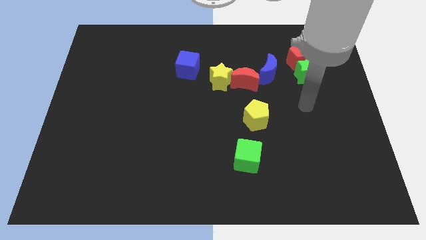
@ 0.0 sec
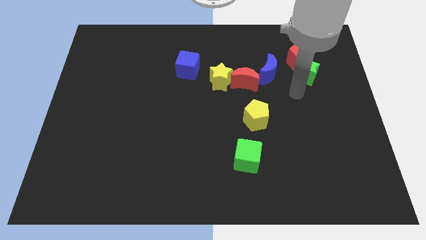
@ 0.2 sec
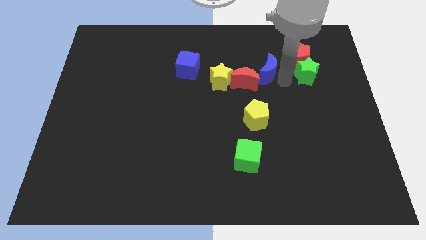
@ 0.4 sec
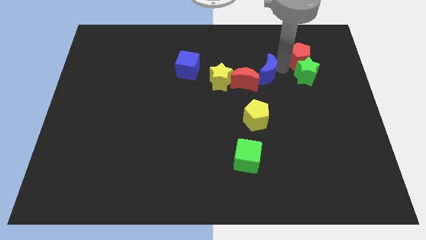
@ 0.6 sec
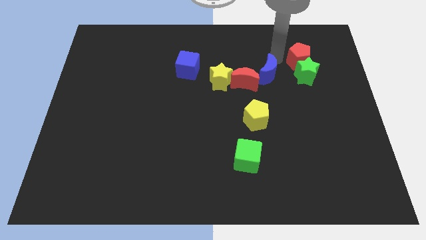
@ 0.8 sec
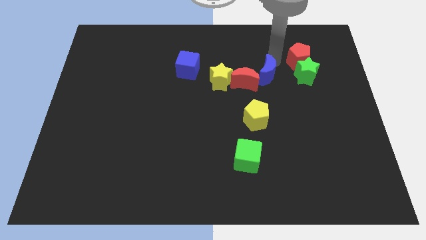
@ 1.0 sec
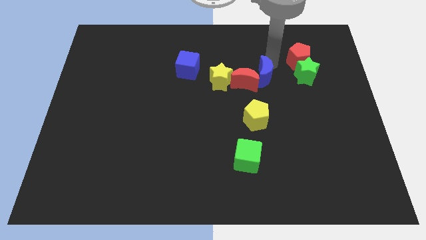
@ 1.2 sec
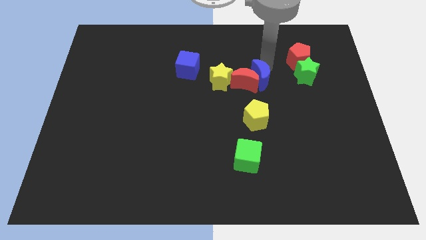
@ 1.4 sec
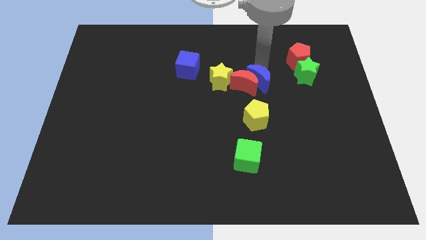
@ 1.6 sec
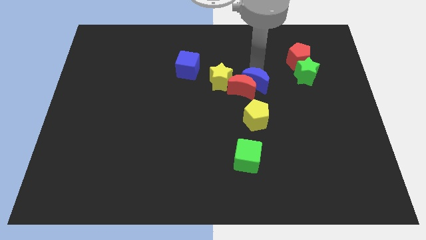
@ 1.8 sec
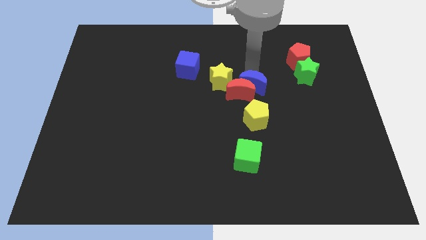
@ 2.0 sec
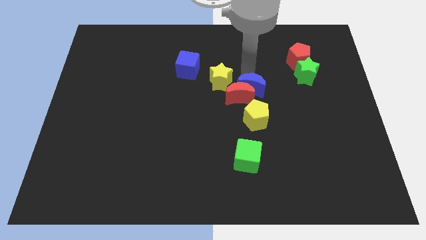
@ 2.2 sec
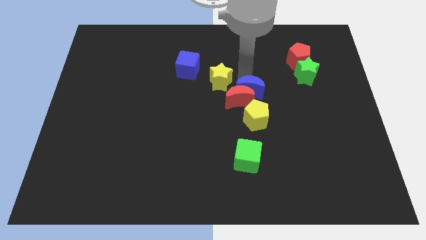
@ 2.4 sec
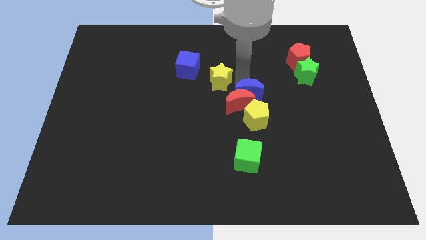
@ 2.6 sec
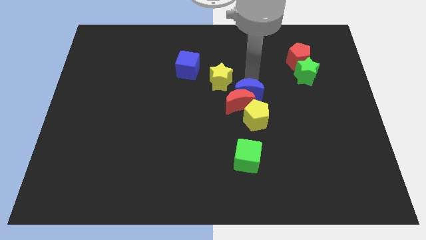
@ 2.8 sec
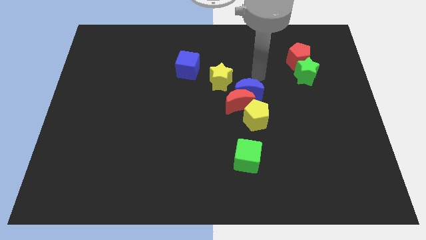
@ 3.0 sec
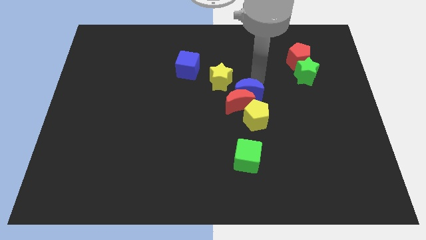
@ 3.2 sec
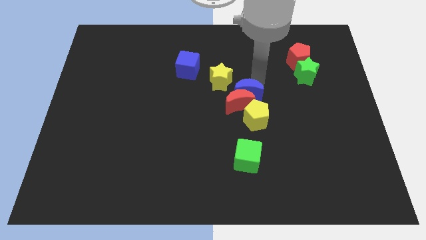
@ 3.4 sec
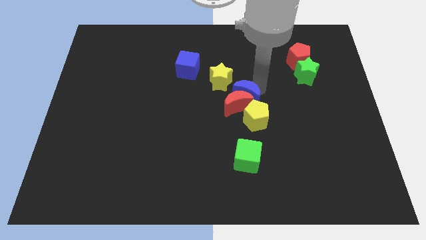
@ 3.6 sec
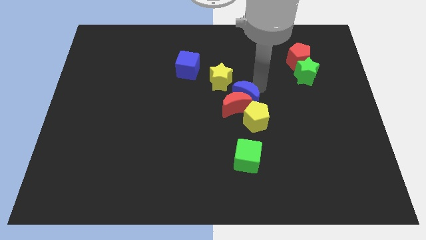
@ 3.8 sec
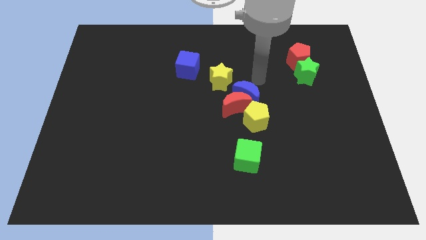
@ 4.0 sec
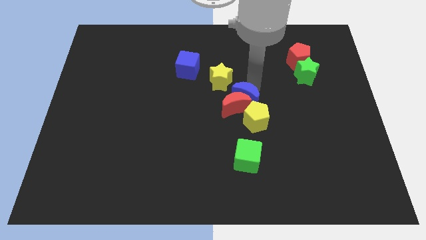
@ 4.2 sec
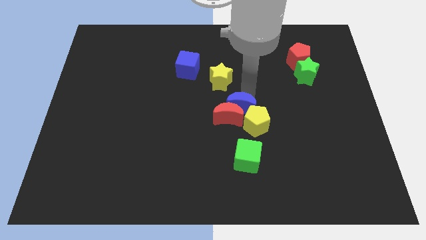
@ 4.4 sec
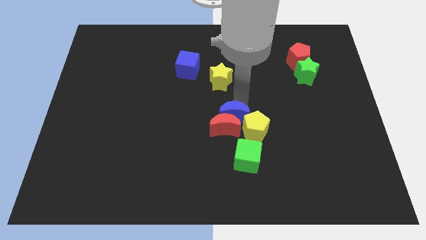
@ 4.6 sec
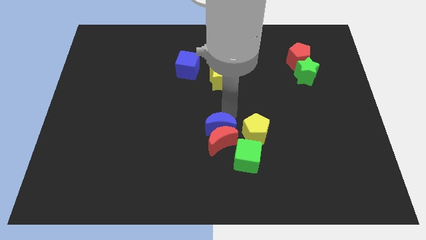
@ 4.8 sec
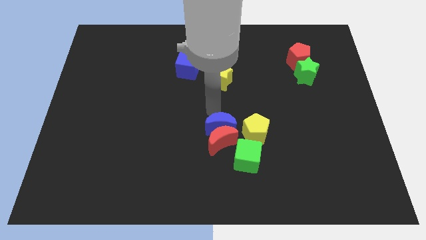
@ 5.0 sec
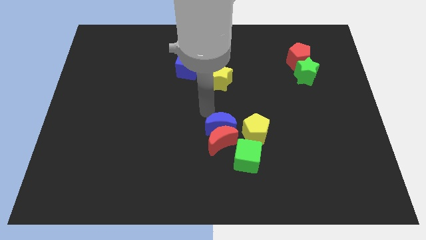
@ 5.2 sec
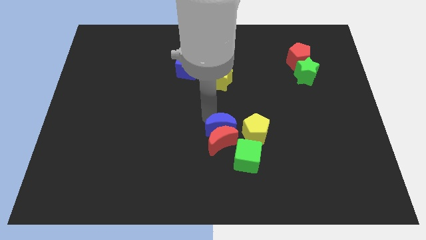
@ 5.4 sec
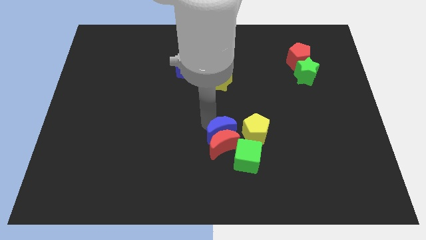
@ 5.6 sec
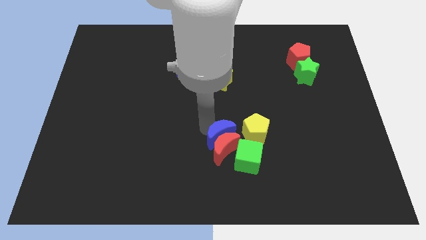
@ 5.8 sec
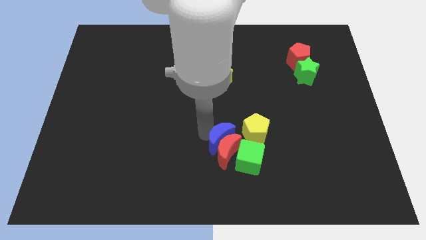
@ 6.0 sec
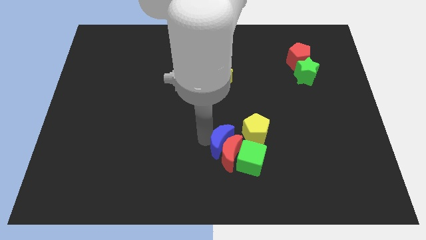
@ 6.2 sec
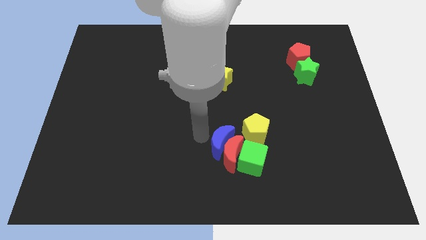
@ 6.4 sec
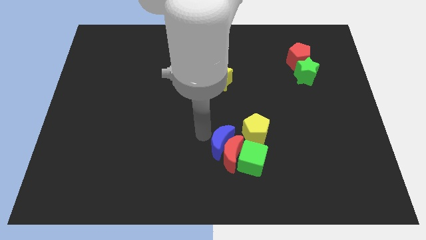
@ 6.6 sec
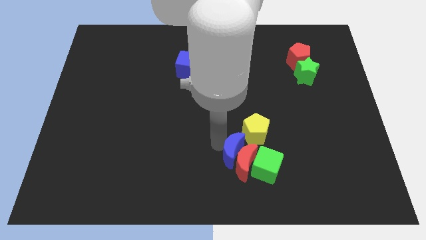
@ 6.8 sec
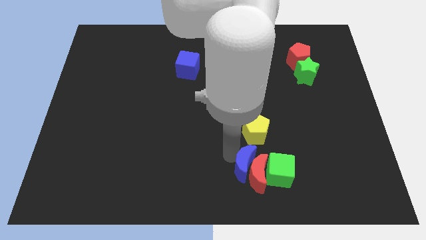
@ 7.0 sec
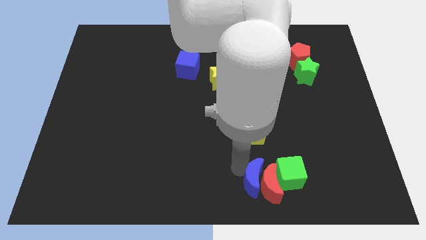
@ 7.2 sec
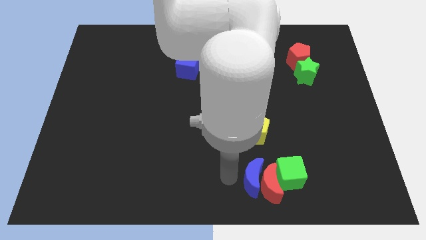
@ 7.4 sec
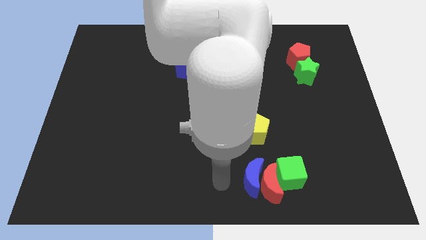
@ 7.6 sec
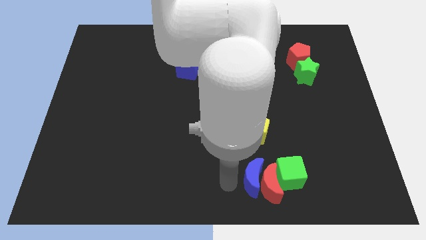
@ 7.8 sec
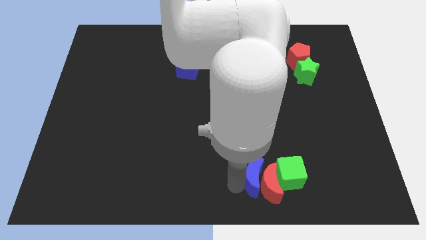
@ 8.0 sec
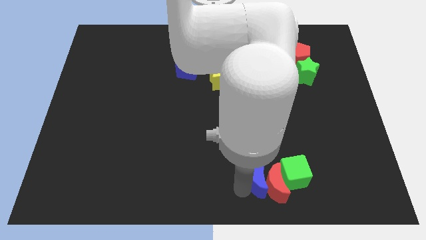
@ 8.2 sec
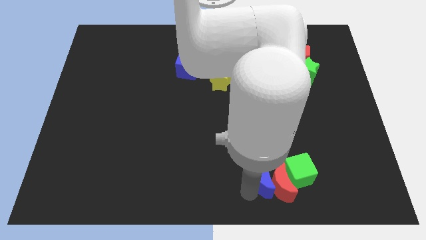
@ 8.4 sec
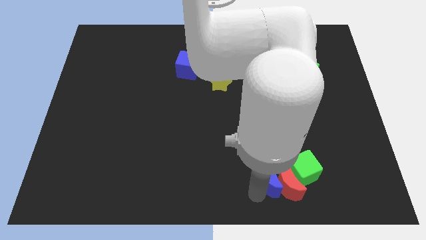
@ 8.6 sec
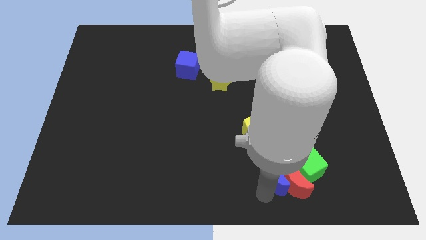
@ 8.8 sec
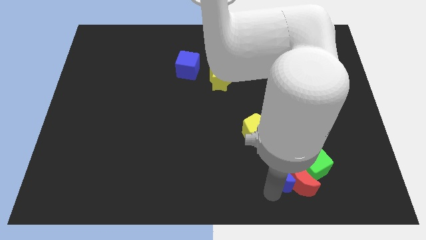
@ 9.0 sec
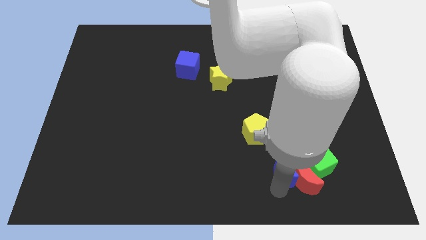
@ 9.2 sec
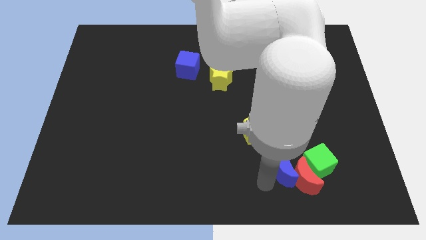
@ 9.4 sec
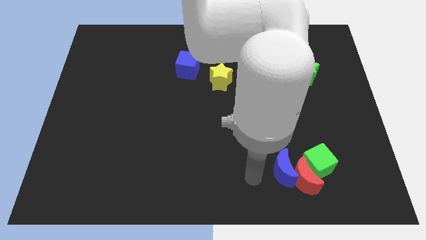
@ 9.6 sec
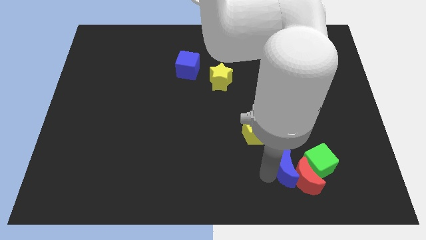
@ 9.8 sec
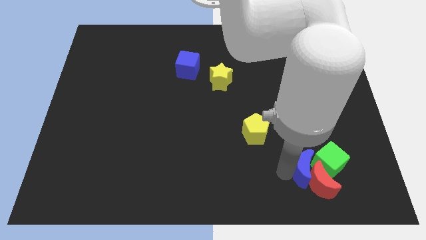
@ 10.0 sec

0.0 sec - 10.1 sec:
put the blue moon close to the green cube

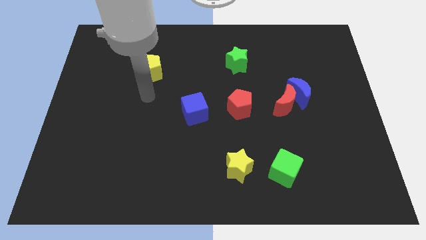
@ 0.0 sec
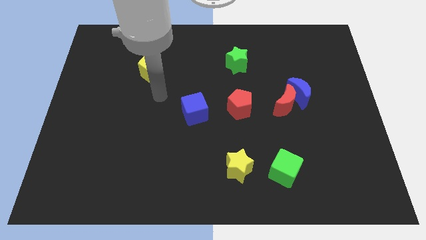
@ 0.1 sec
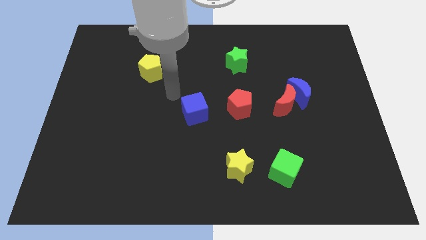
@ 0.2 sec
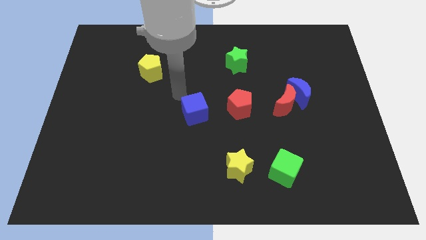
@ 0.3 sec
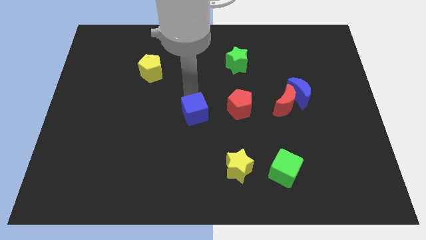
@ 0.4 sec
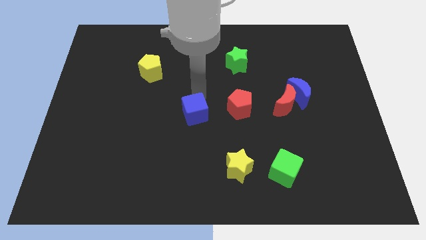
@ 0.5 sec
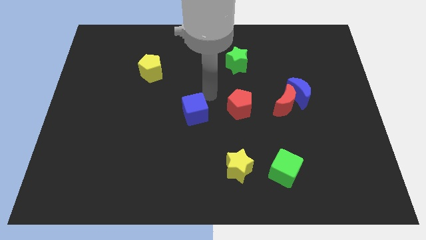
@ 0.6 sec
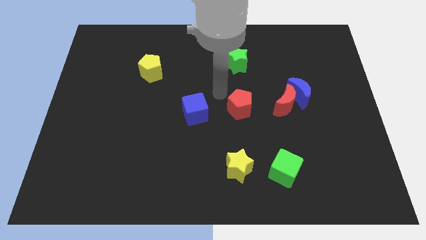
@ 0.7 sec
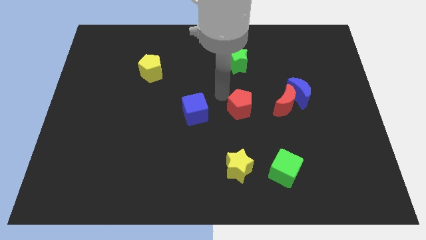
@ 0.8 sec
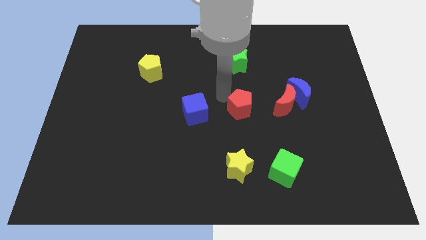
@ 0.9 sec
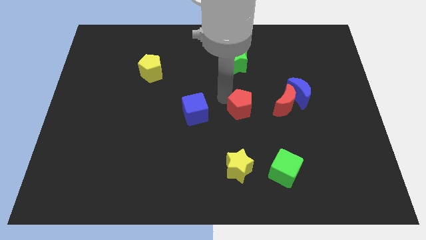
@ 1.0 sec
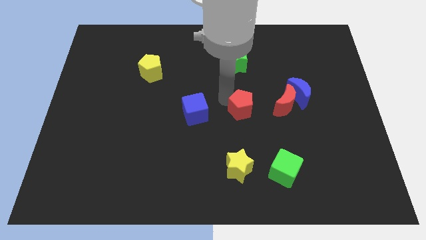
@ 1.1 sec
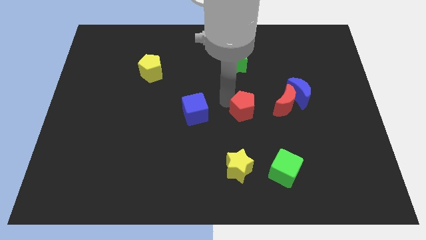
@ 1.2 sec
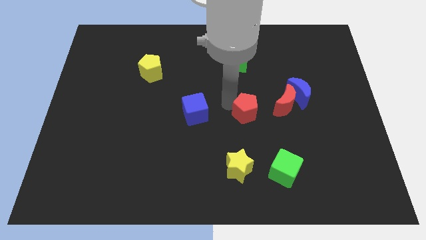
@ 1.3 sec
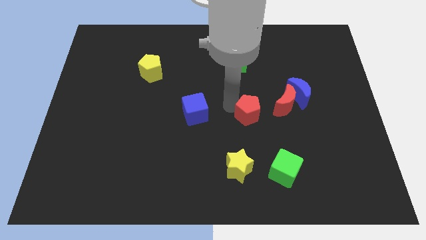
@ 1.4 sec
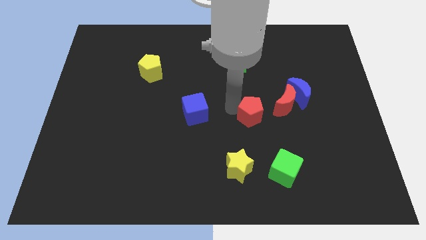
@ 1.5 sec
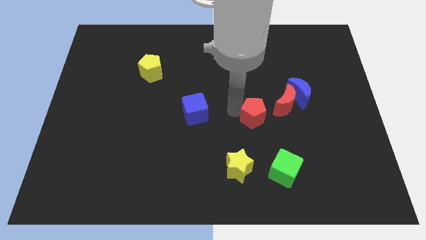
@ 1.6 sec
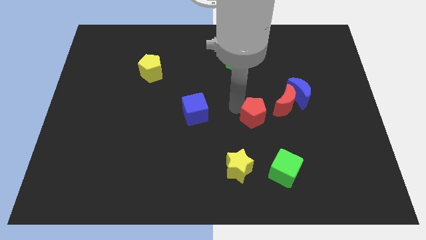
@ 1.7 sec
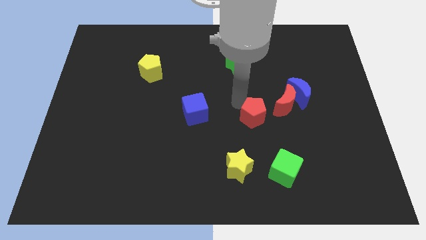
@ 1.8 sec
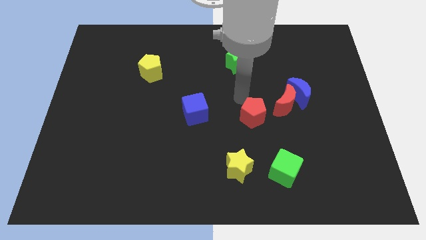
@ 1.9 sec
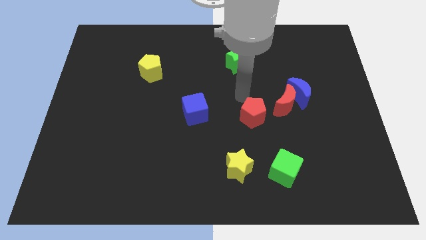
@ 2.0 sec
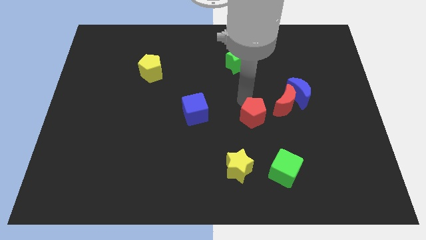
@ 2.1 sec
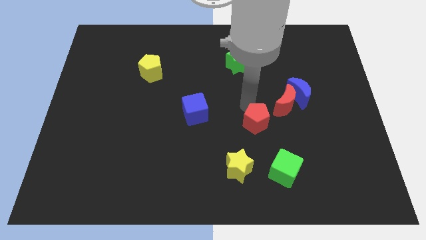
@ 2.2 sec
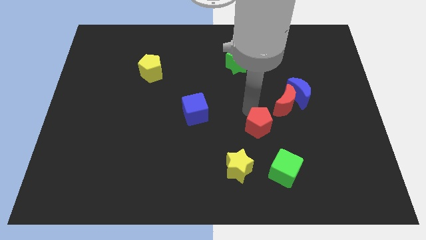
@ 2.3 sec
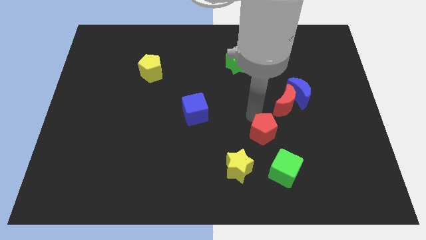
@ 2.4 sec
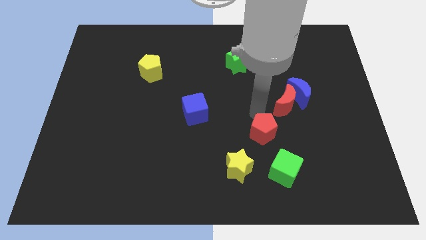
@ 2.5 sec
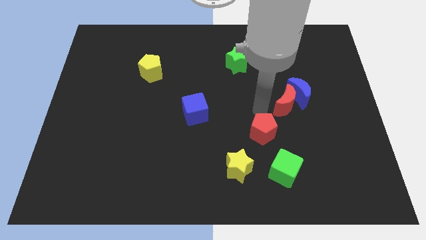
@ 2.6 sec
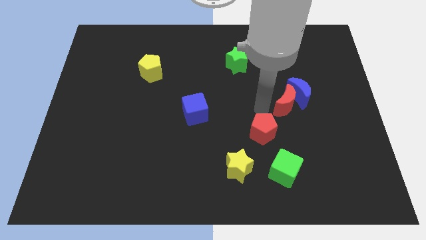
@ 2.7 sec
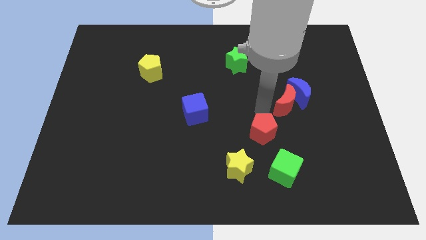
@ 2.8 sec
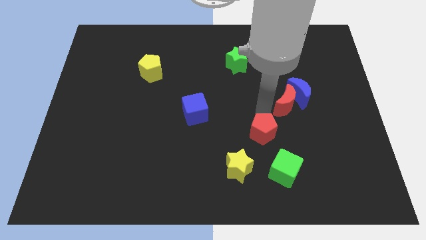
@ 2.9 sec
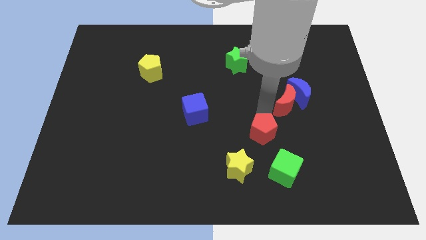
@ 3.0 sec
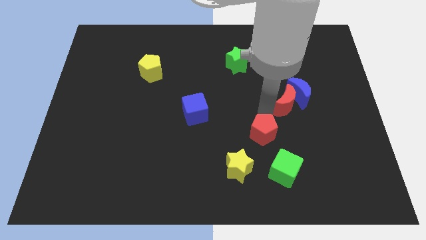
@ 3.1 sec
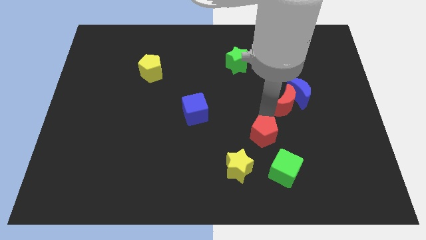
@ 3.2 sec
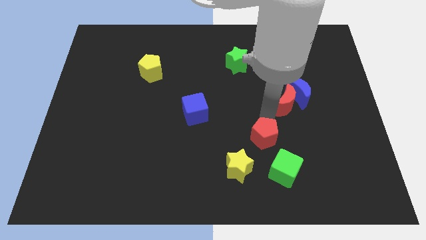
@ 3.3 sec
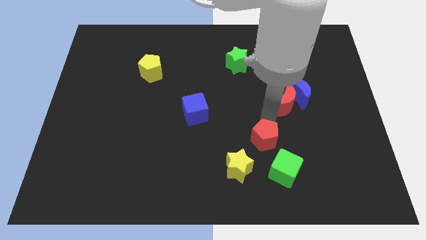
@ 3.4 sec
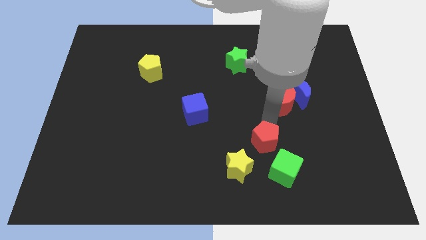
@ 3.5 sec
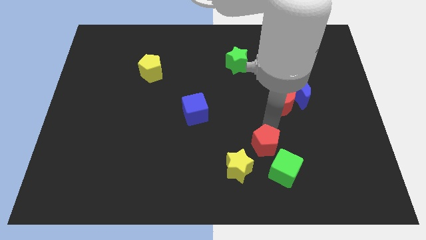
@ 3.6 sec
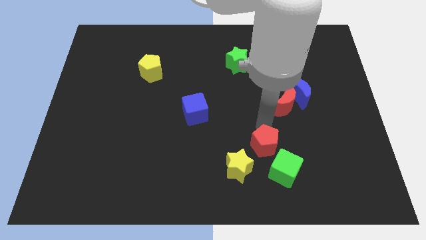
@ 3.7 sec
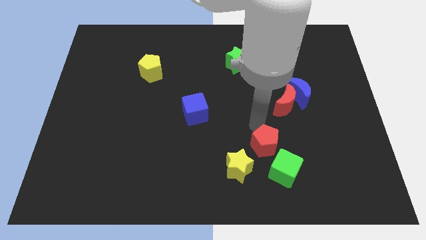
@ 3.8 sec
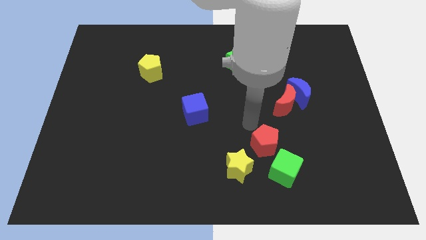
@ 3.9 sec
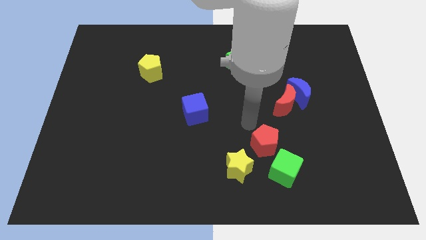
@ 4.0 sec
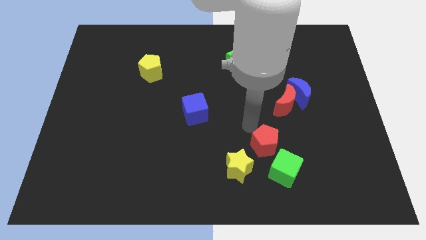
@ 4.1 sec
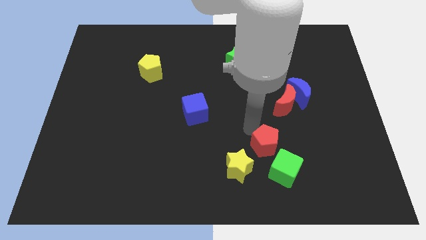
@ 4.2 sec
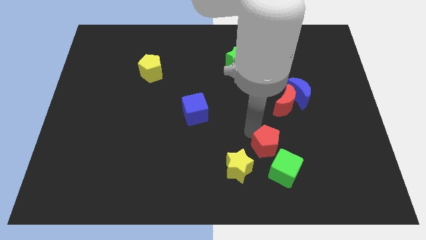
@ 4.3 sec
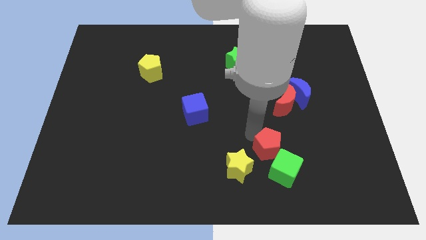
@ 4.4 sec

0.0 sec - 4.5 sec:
push the red pentagon next to the green cube
